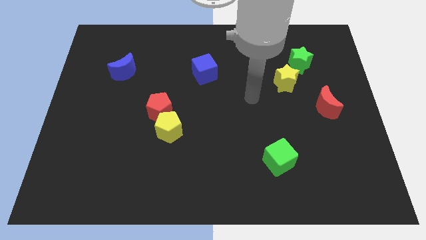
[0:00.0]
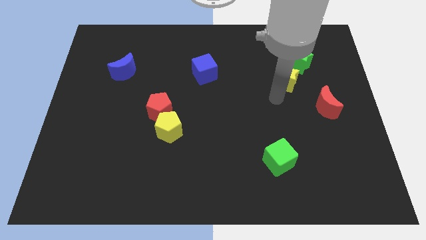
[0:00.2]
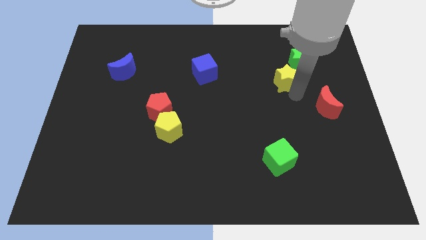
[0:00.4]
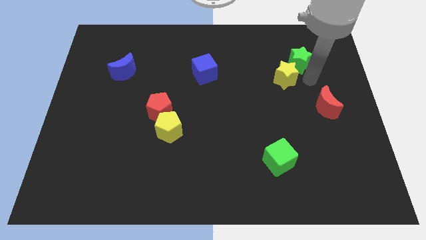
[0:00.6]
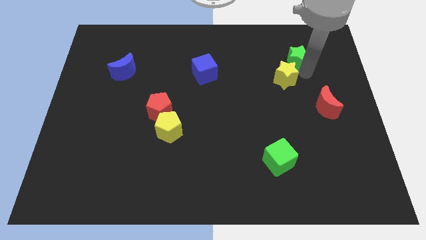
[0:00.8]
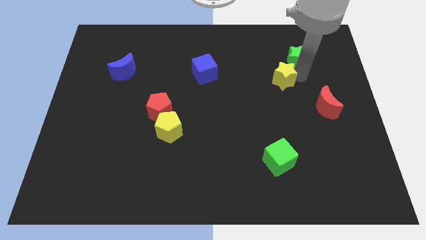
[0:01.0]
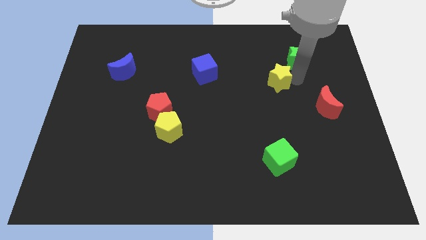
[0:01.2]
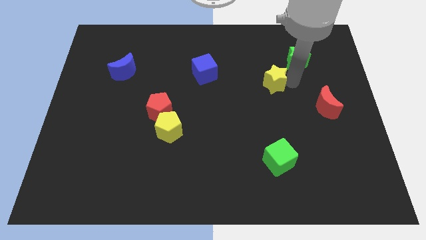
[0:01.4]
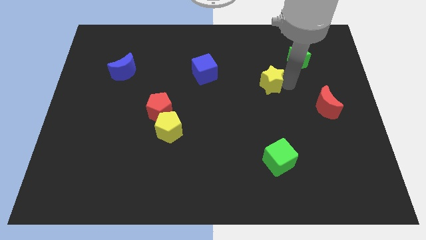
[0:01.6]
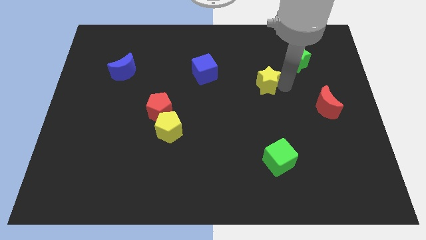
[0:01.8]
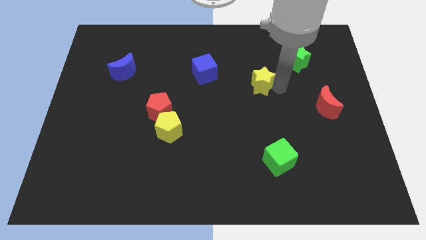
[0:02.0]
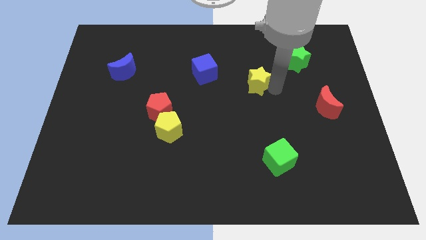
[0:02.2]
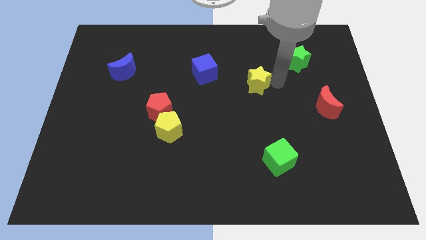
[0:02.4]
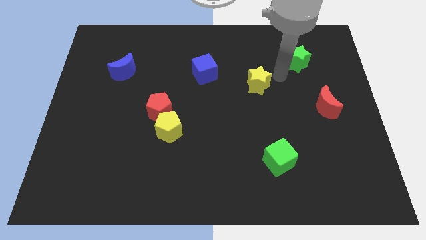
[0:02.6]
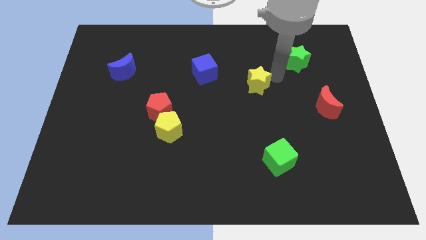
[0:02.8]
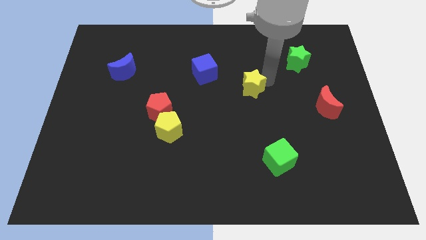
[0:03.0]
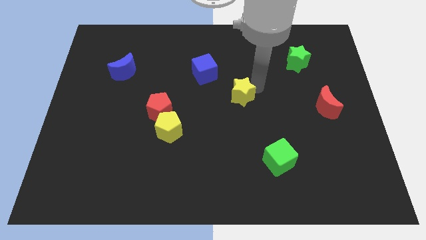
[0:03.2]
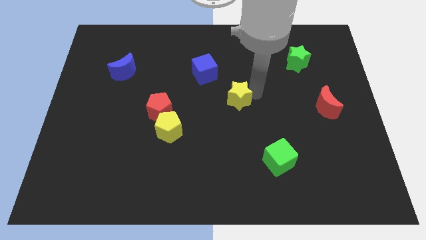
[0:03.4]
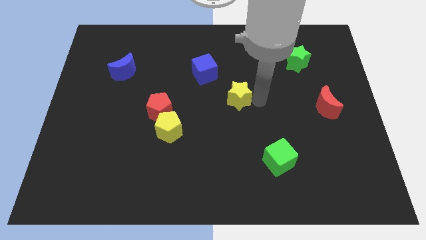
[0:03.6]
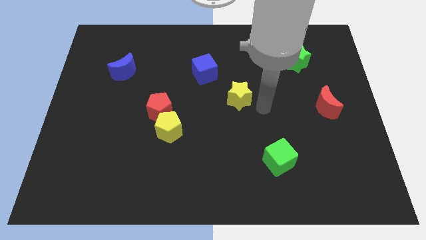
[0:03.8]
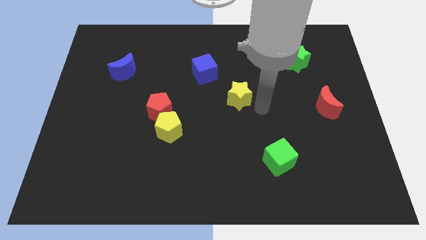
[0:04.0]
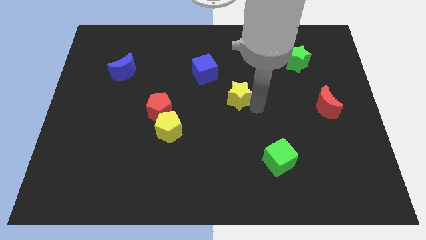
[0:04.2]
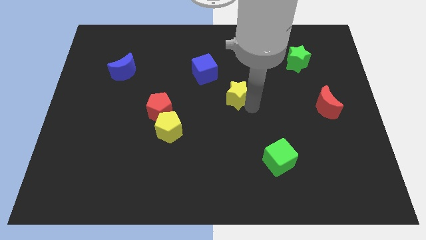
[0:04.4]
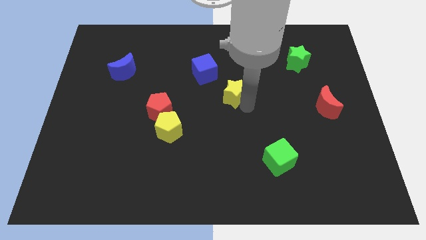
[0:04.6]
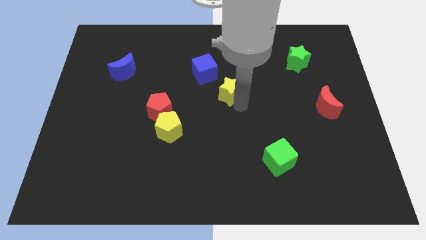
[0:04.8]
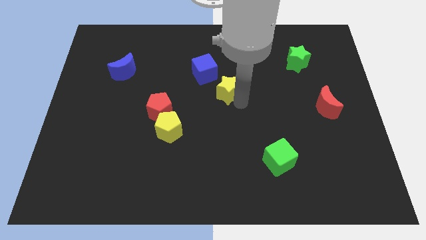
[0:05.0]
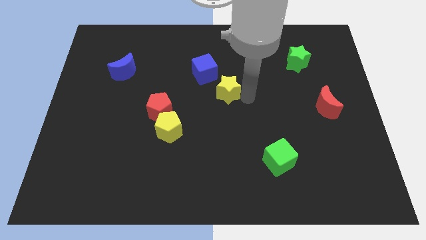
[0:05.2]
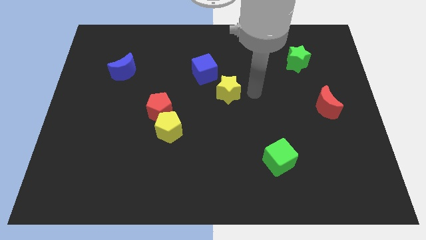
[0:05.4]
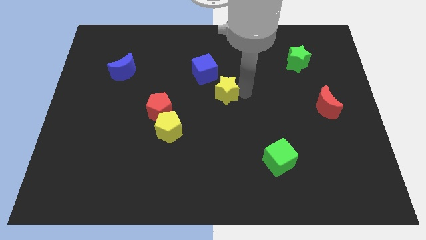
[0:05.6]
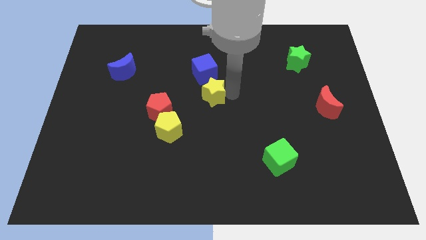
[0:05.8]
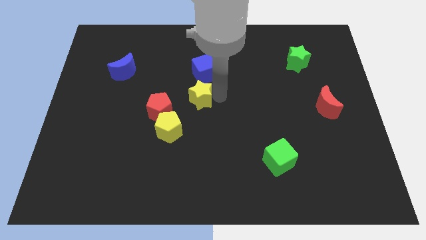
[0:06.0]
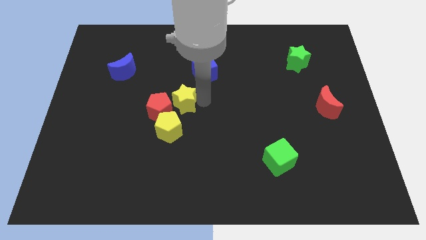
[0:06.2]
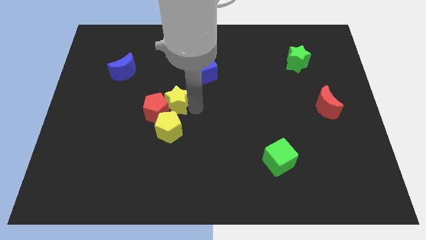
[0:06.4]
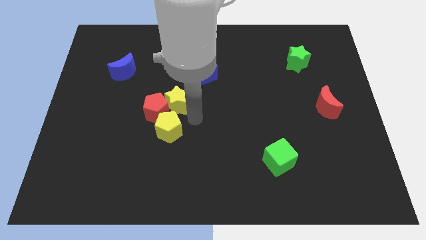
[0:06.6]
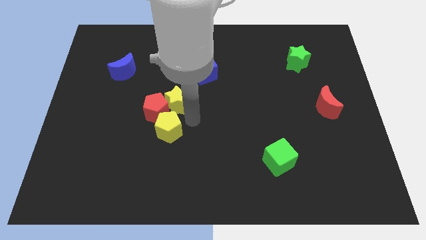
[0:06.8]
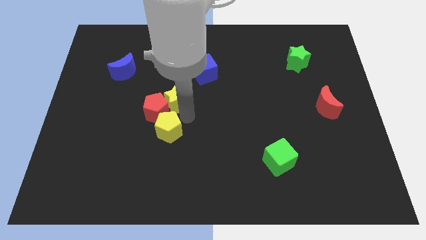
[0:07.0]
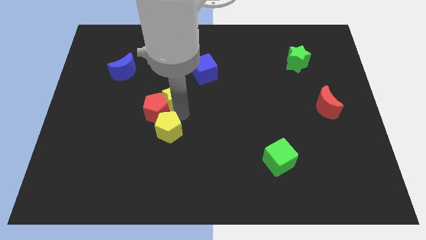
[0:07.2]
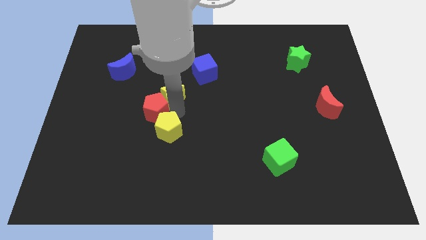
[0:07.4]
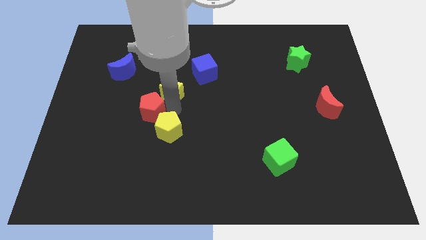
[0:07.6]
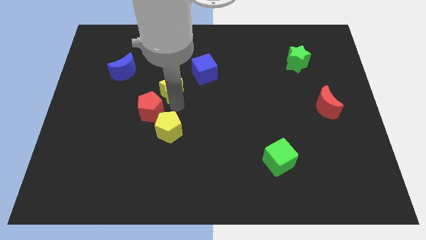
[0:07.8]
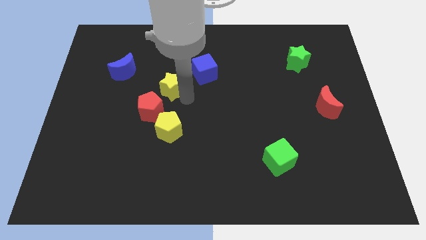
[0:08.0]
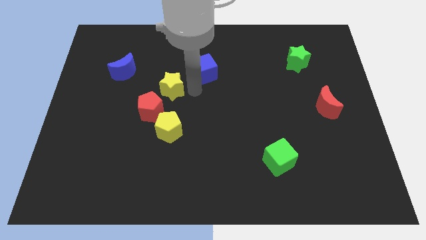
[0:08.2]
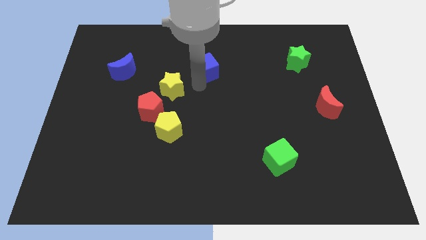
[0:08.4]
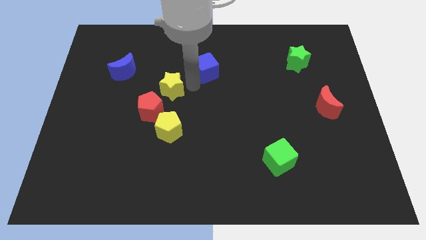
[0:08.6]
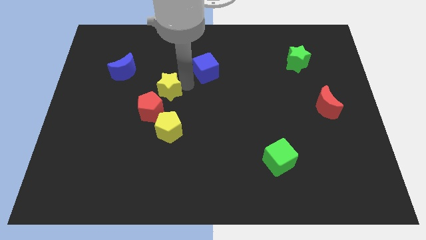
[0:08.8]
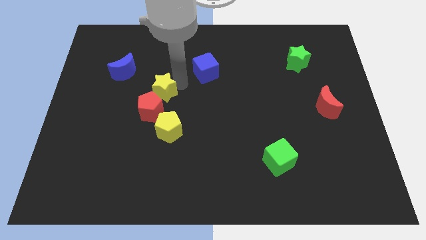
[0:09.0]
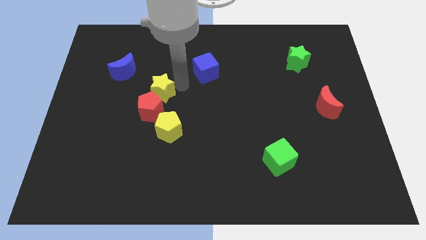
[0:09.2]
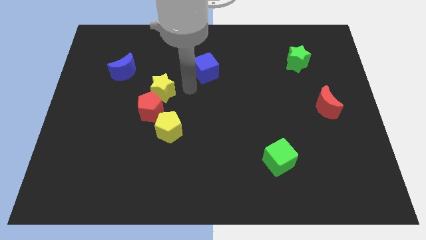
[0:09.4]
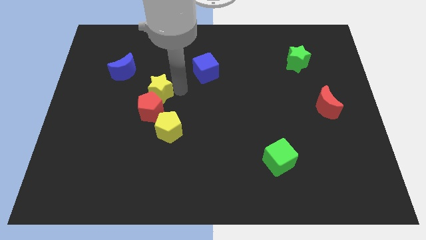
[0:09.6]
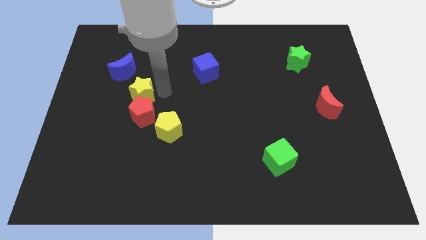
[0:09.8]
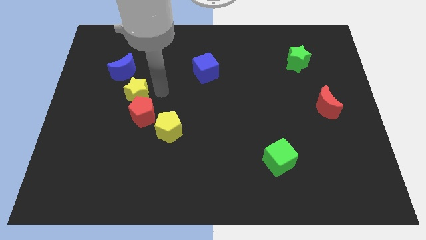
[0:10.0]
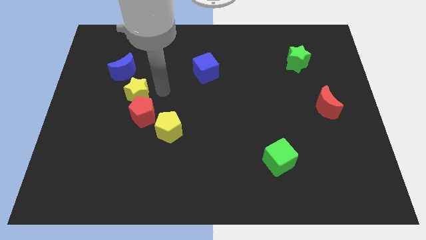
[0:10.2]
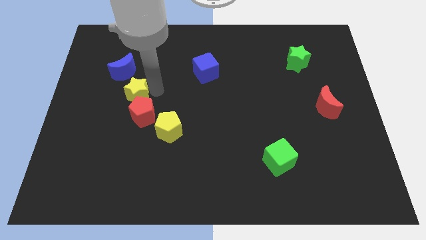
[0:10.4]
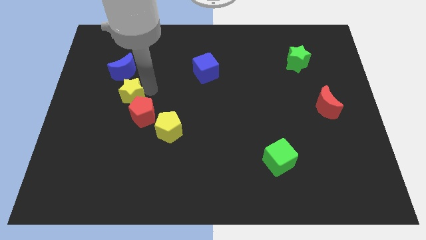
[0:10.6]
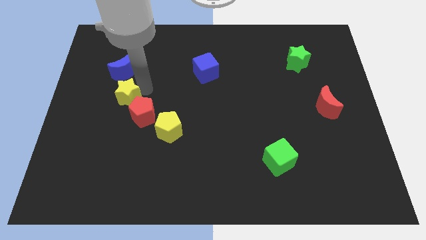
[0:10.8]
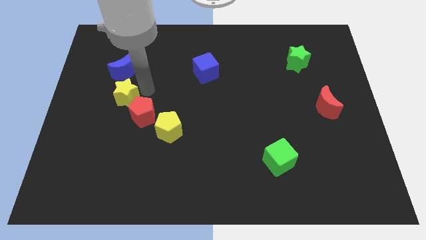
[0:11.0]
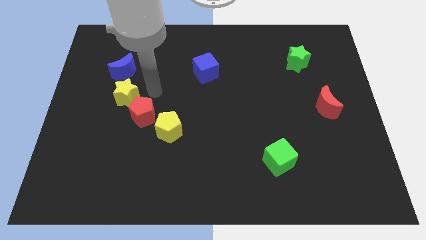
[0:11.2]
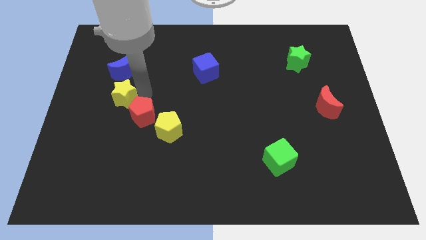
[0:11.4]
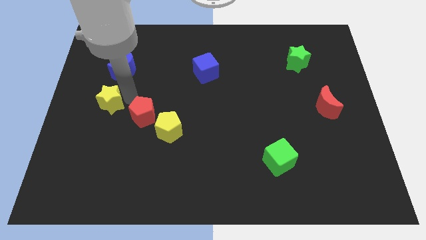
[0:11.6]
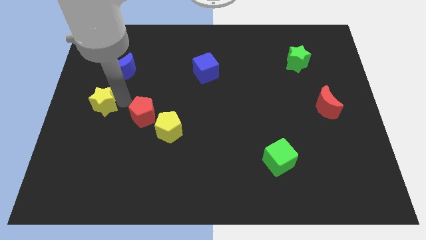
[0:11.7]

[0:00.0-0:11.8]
push the yellow star to the center left

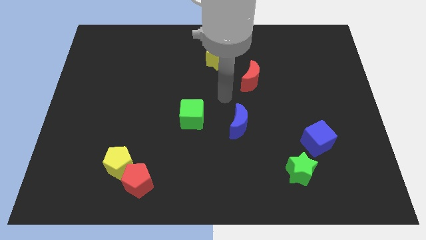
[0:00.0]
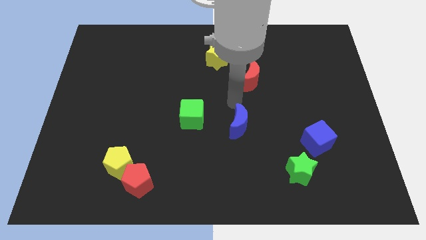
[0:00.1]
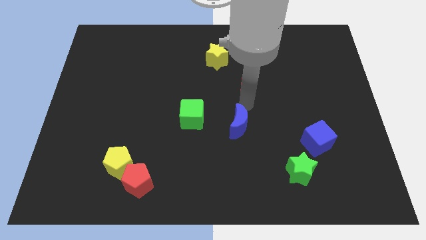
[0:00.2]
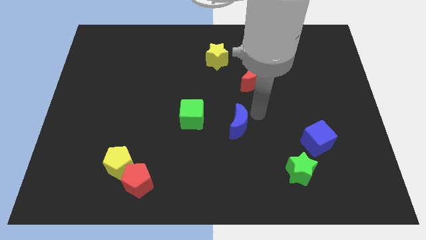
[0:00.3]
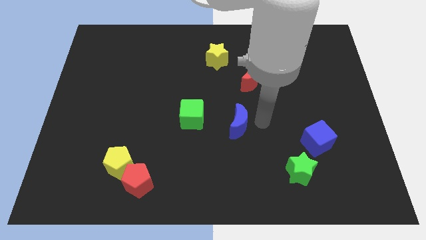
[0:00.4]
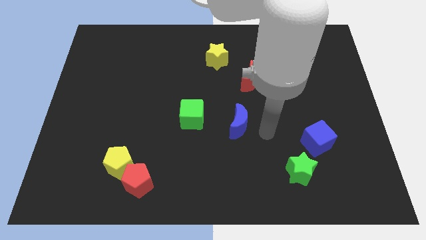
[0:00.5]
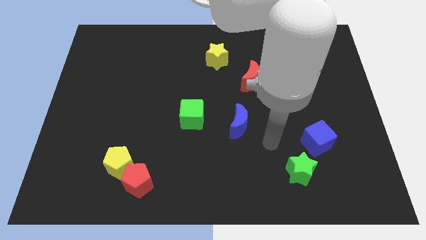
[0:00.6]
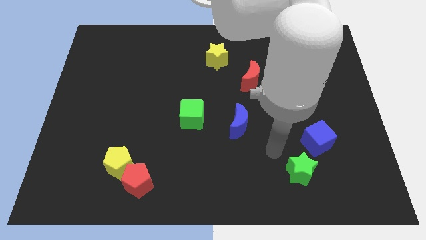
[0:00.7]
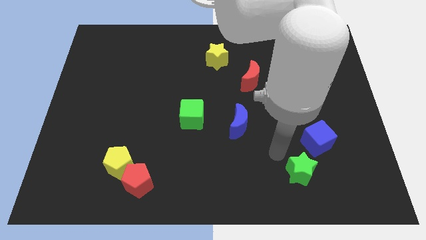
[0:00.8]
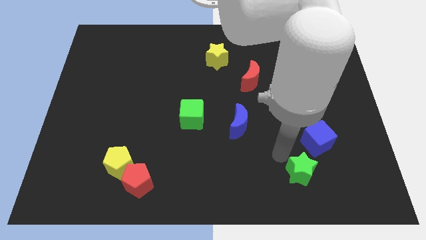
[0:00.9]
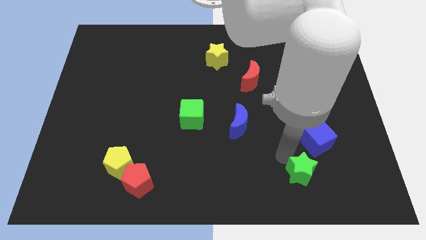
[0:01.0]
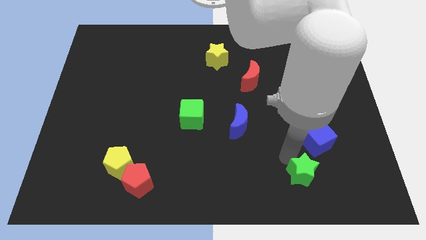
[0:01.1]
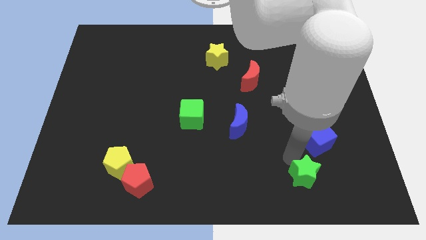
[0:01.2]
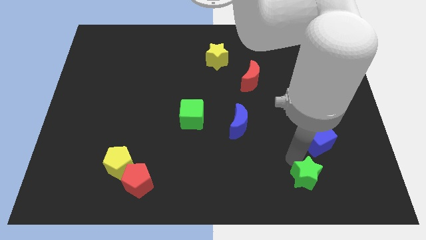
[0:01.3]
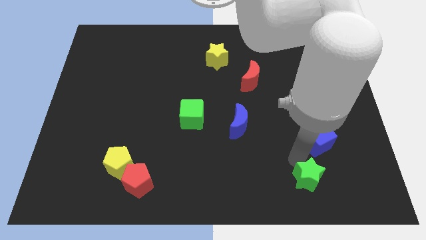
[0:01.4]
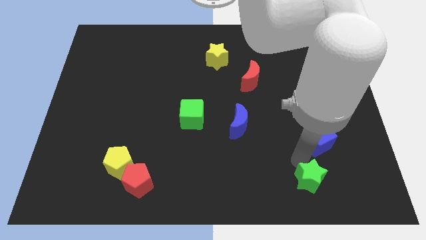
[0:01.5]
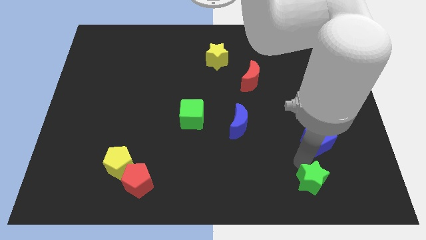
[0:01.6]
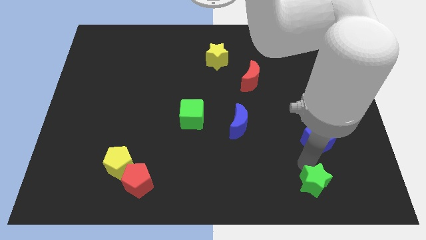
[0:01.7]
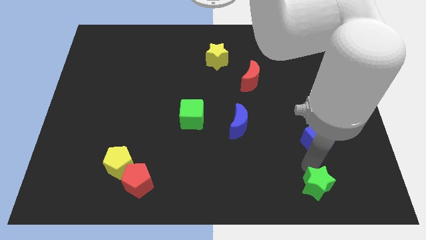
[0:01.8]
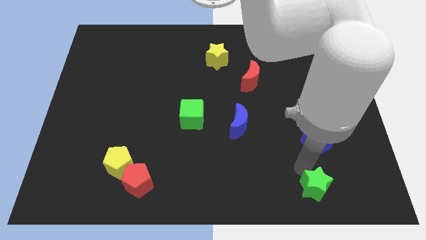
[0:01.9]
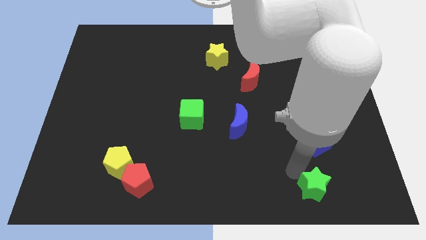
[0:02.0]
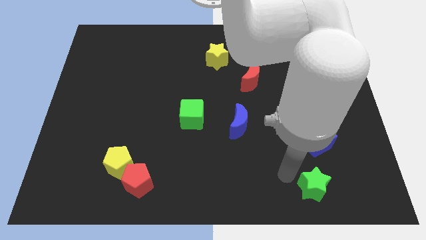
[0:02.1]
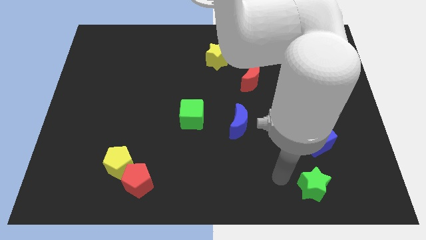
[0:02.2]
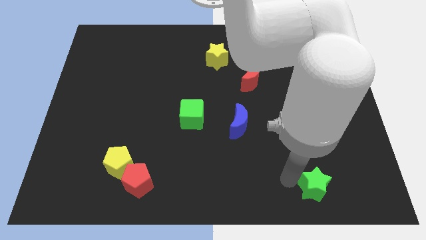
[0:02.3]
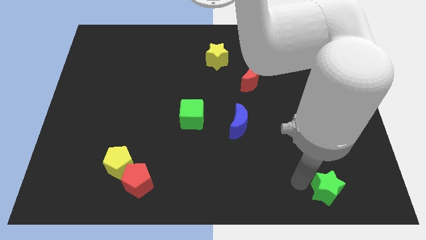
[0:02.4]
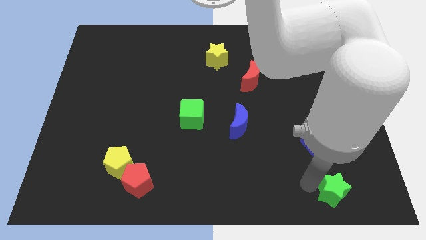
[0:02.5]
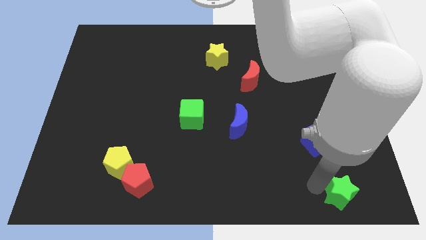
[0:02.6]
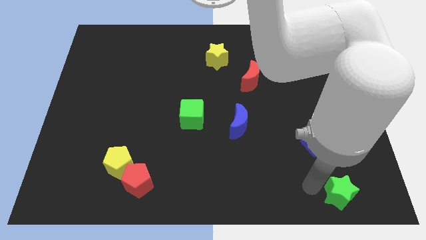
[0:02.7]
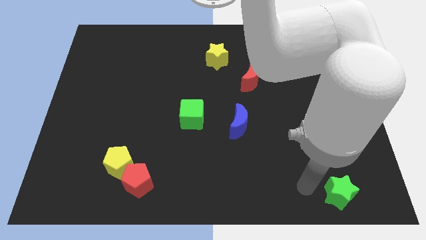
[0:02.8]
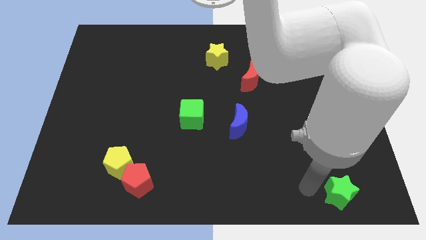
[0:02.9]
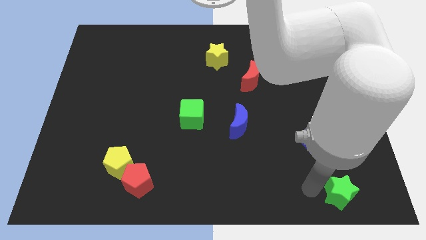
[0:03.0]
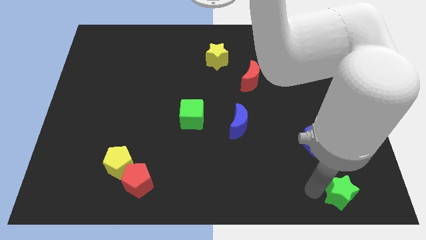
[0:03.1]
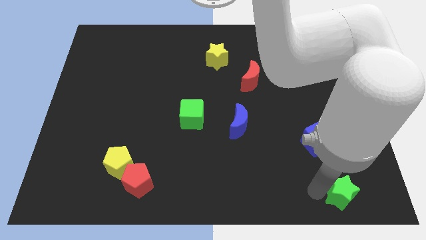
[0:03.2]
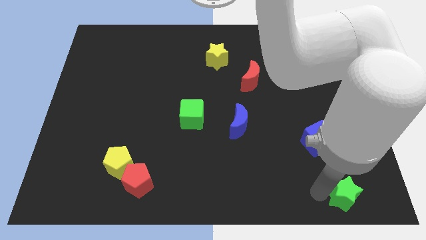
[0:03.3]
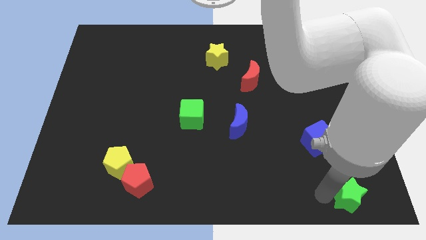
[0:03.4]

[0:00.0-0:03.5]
push the green star to the lower right corner
